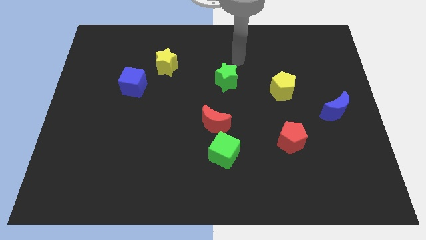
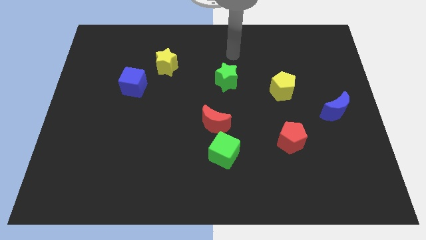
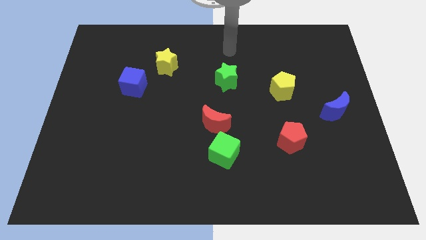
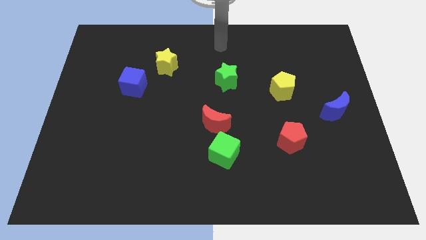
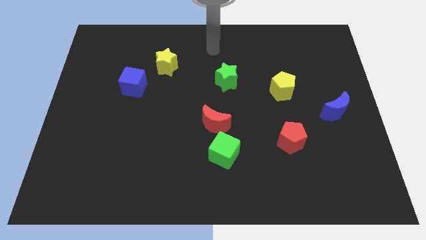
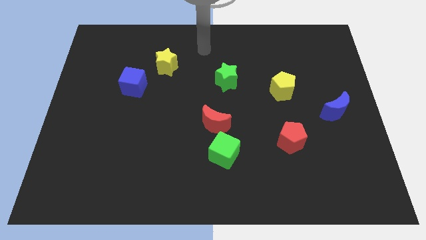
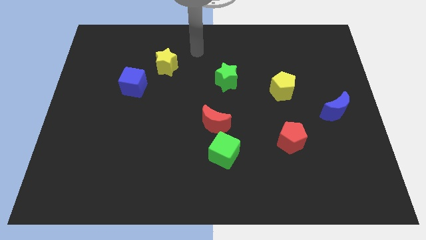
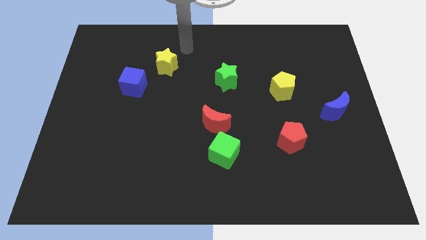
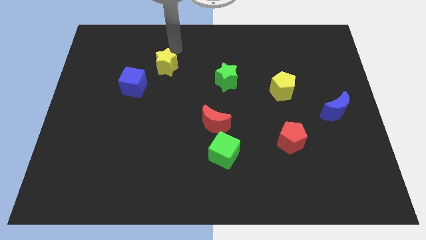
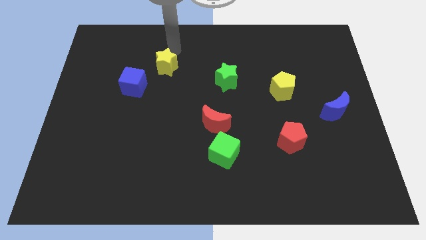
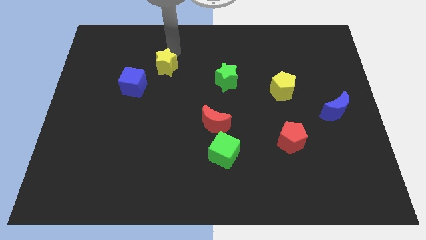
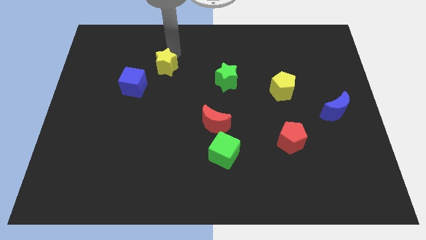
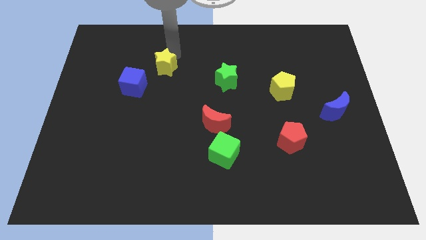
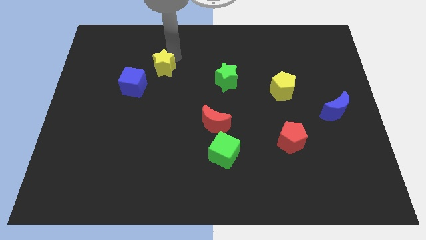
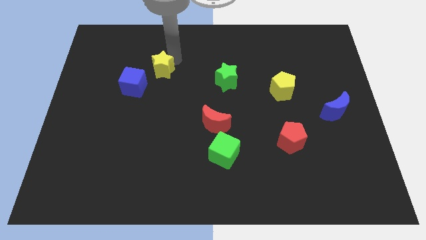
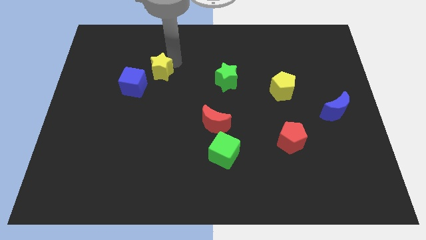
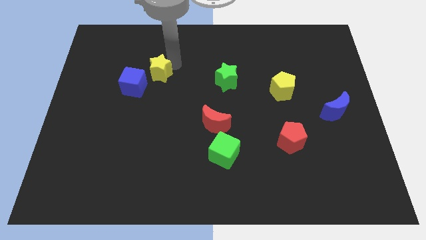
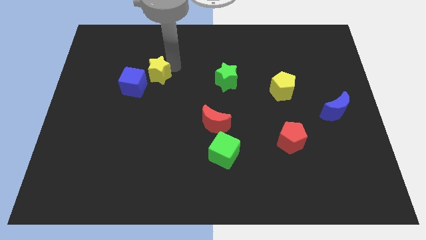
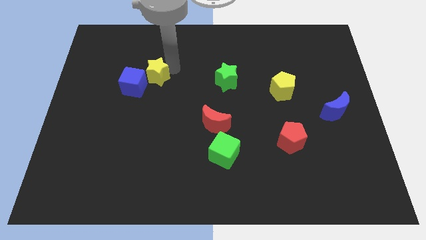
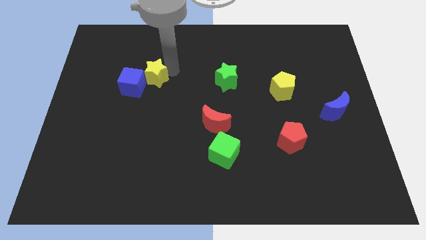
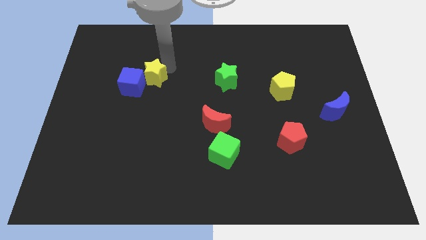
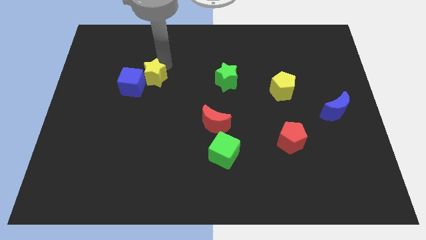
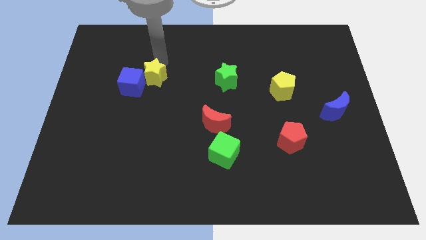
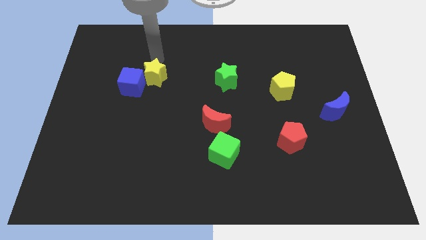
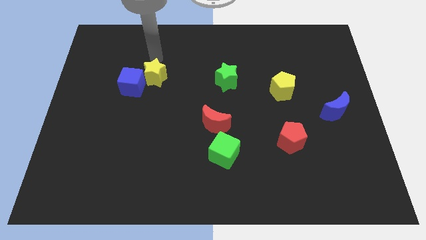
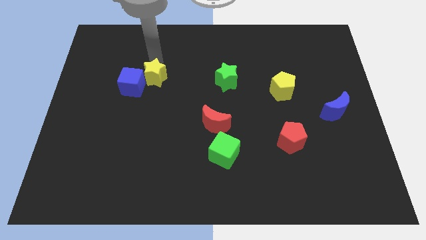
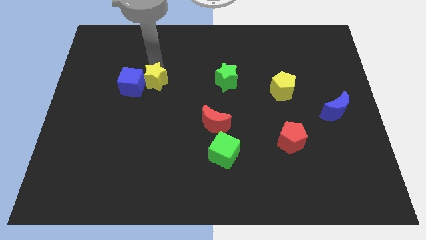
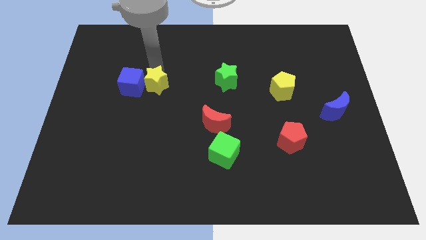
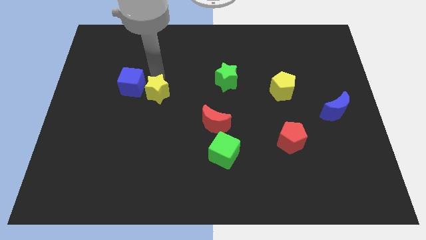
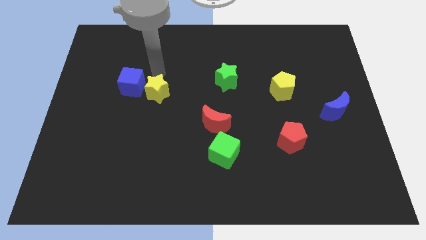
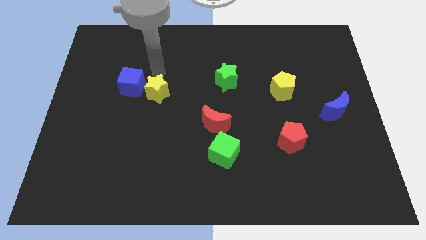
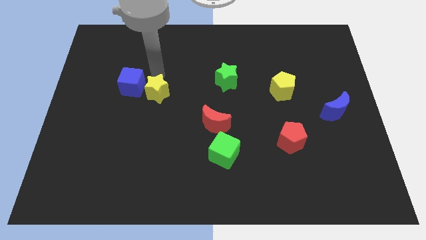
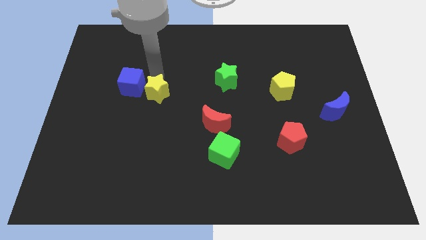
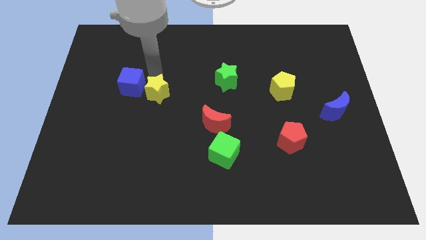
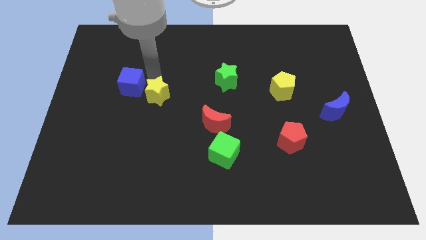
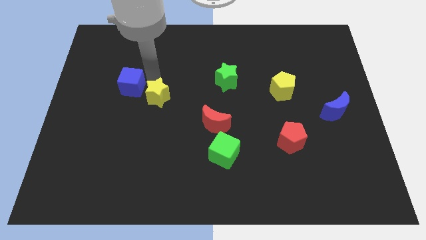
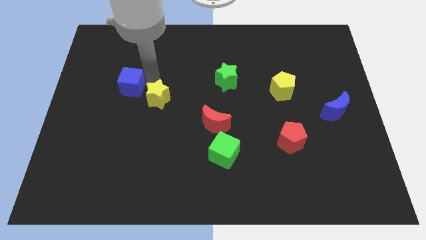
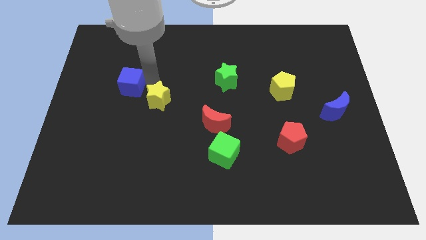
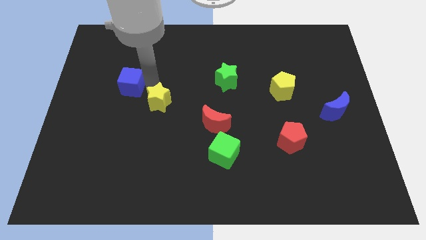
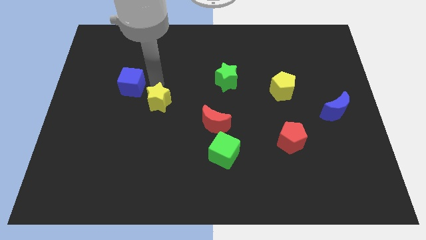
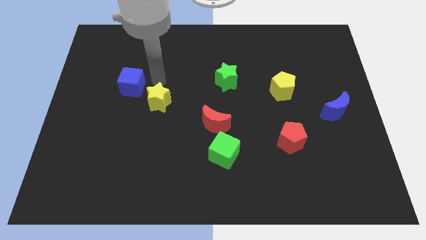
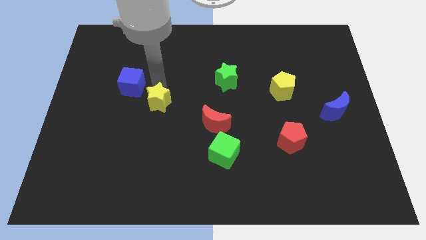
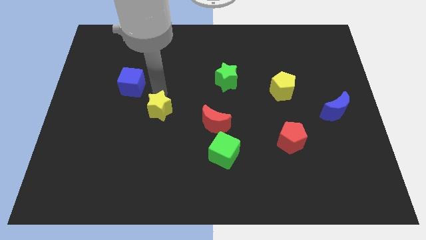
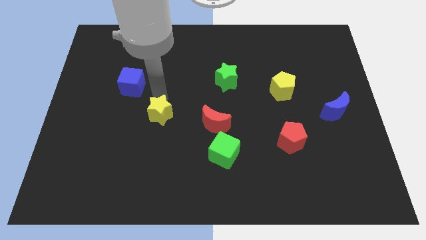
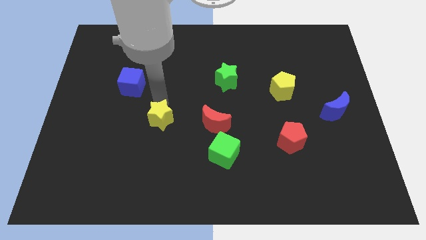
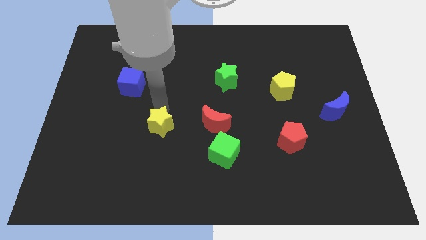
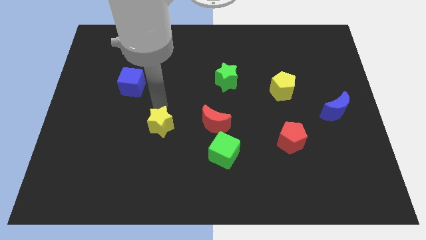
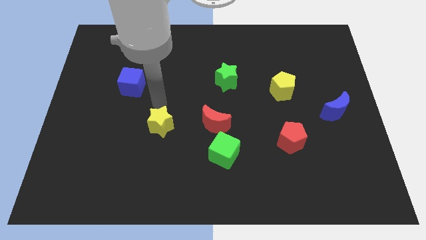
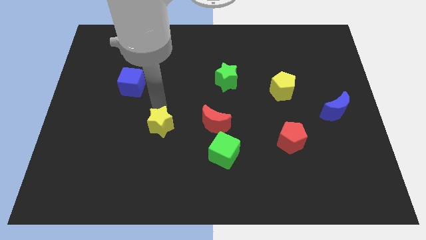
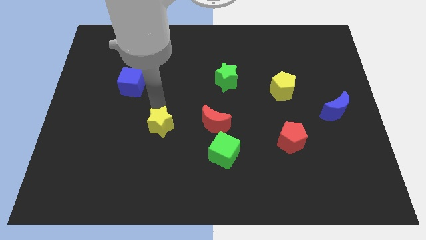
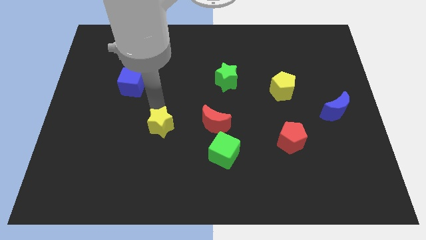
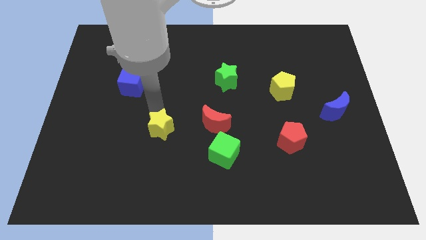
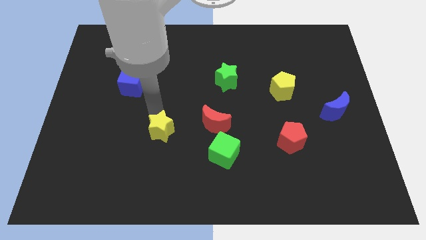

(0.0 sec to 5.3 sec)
move the yellow star down

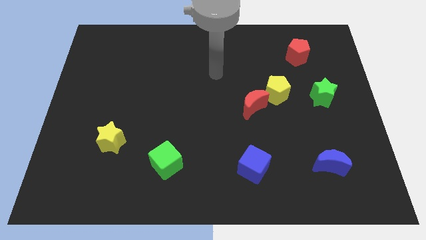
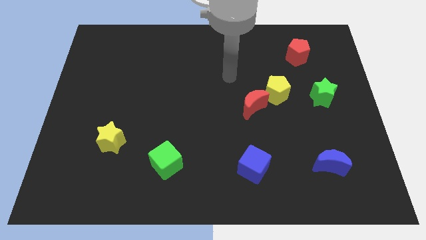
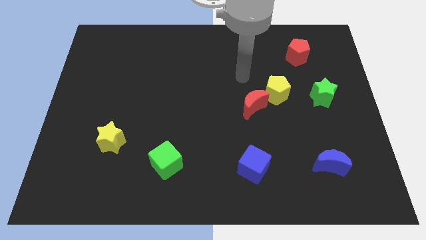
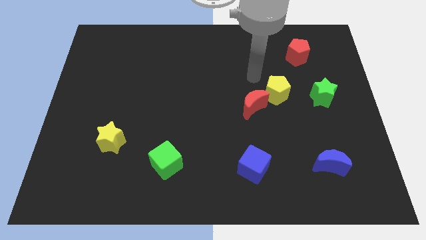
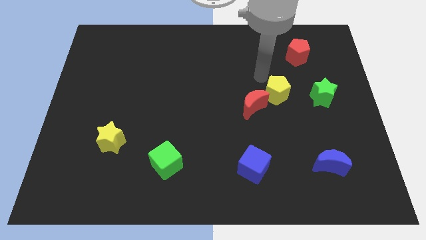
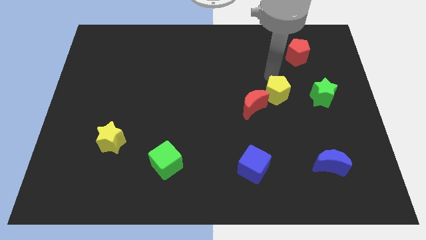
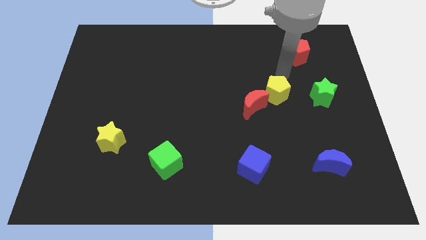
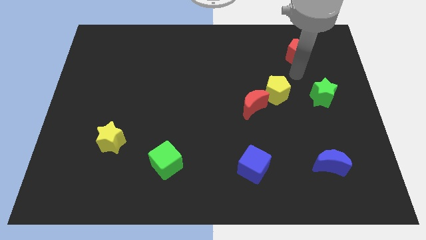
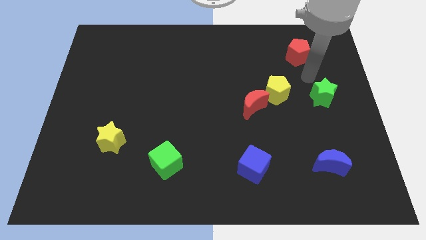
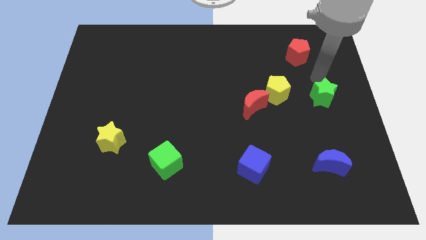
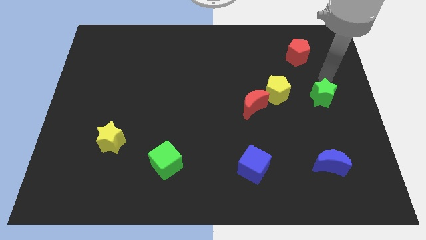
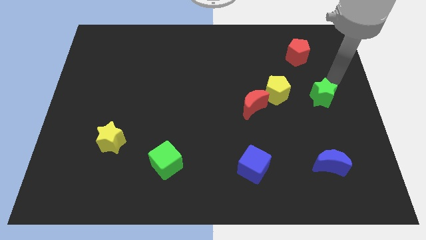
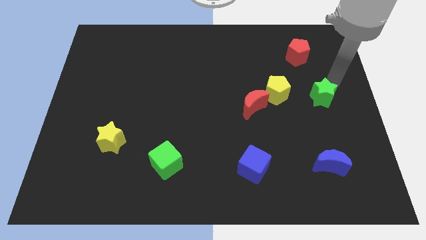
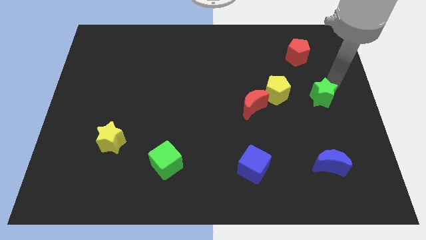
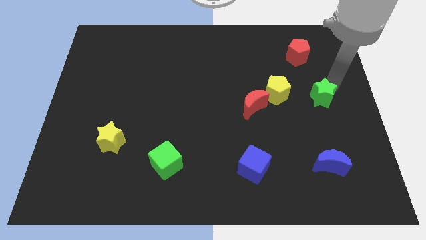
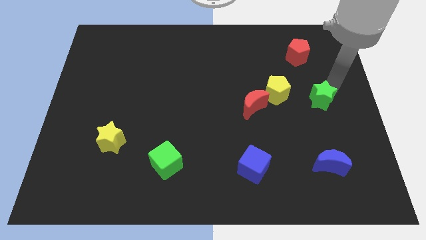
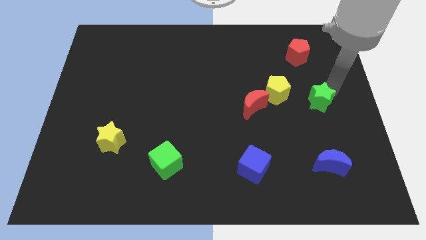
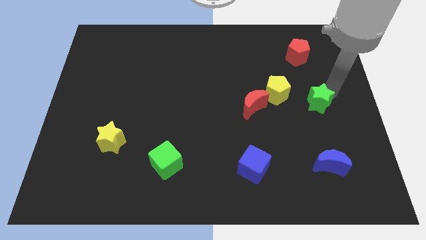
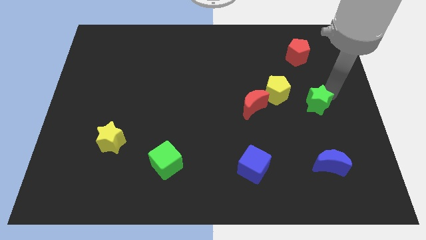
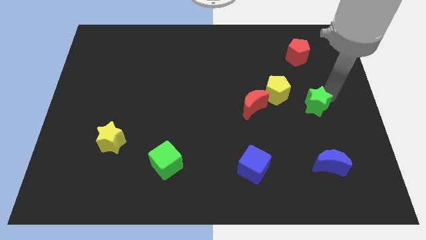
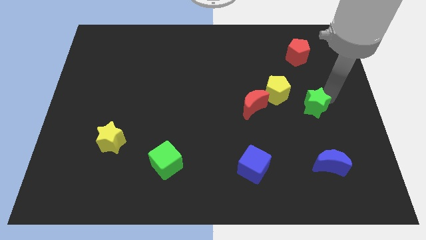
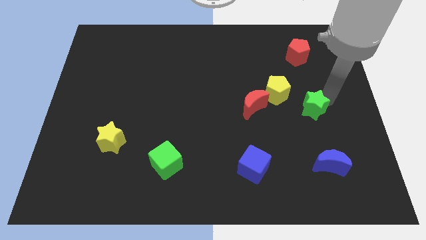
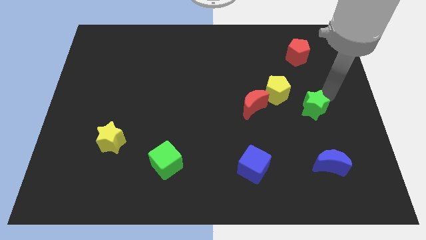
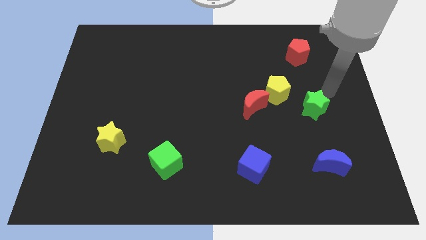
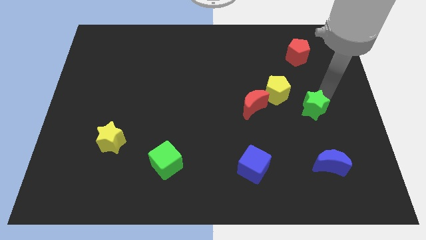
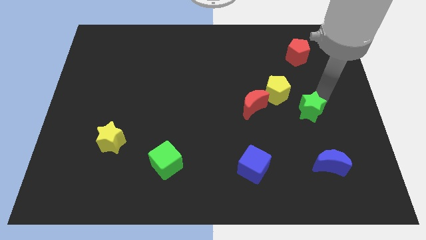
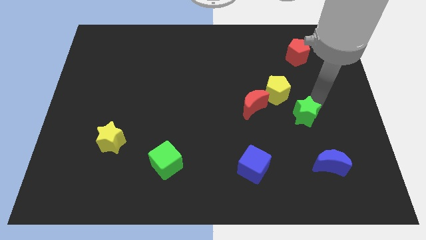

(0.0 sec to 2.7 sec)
slightly push the green star downwards and left

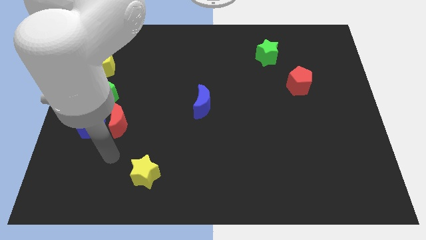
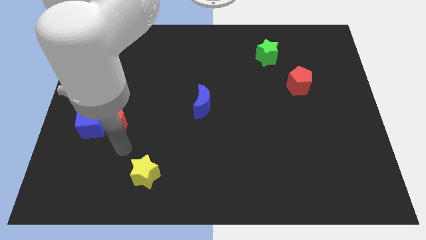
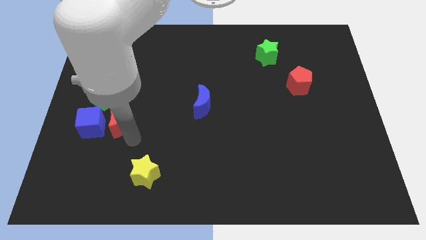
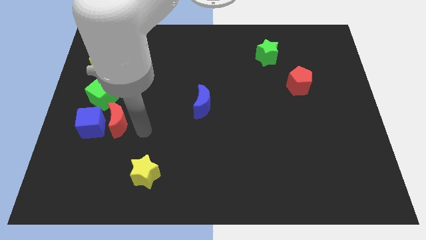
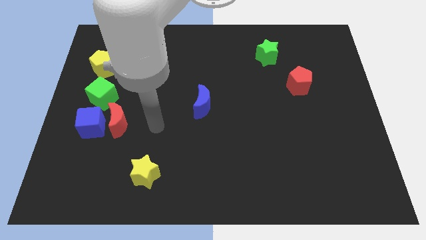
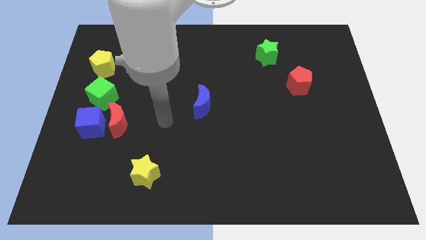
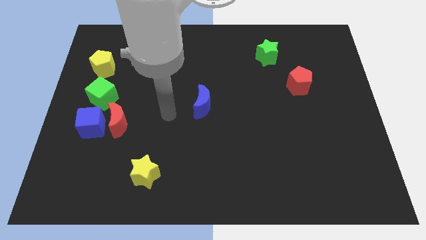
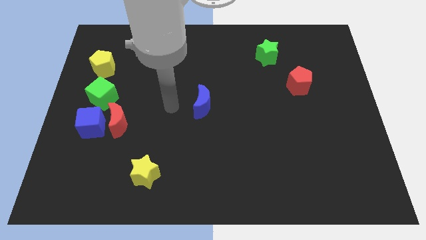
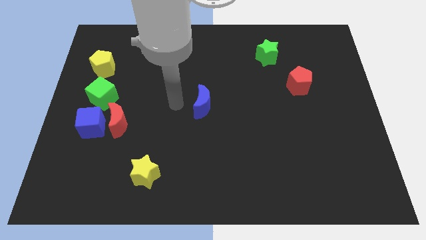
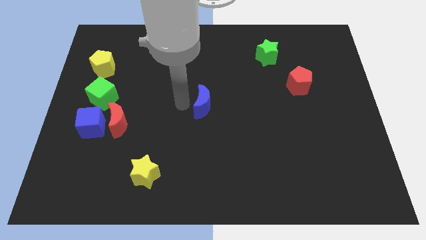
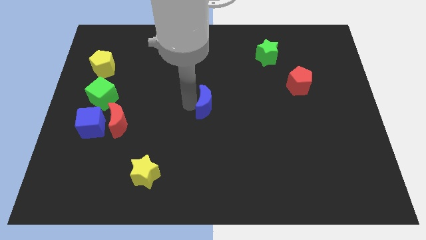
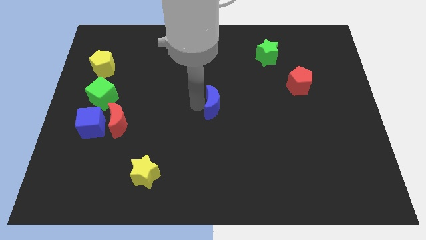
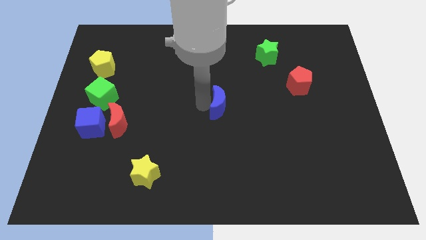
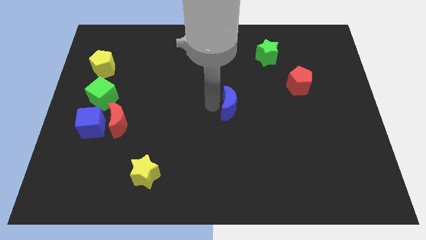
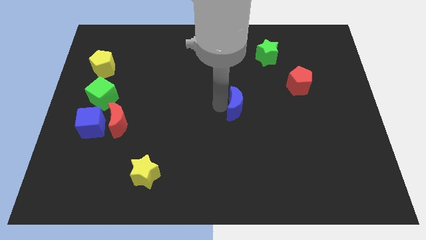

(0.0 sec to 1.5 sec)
push the blue moon right a little
